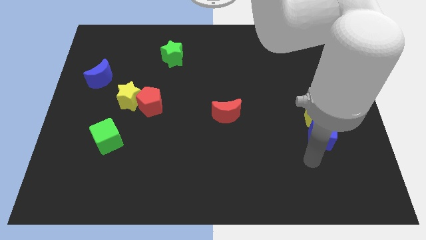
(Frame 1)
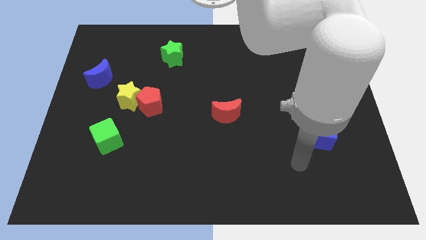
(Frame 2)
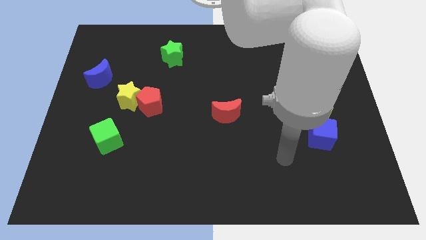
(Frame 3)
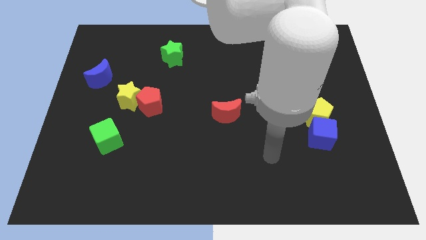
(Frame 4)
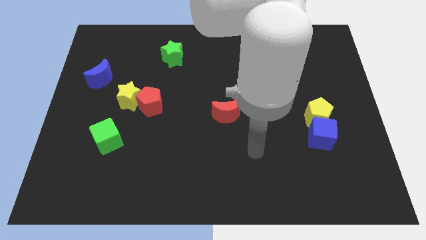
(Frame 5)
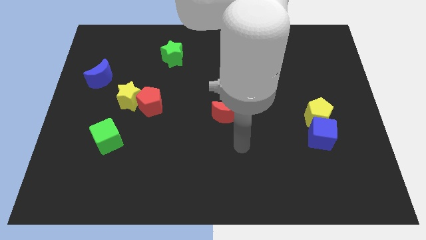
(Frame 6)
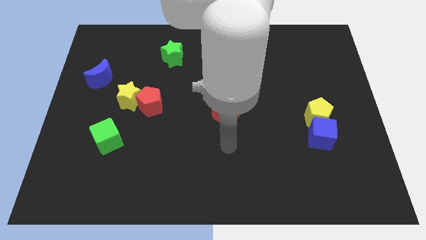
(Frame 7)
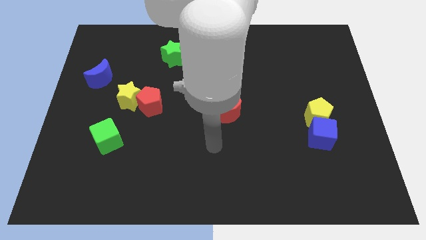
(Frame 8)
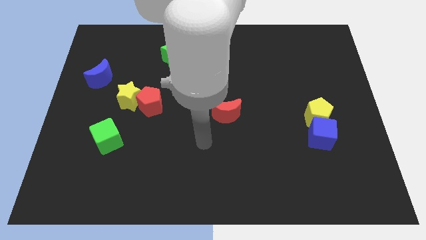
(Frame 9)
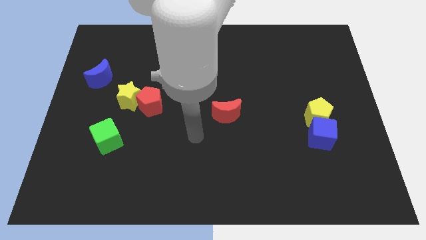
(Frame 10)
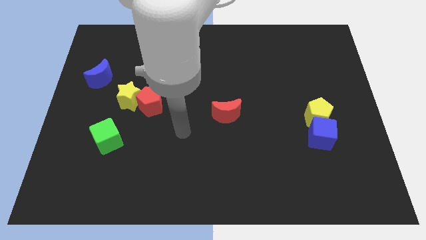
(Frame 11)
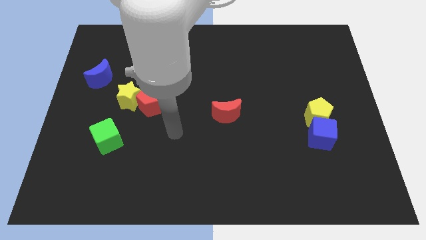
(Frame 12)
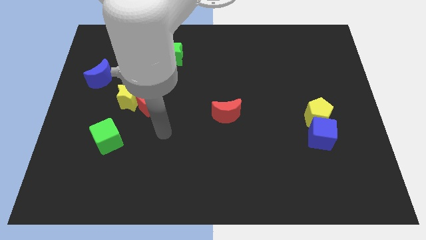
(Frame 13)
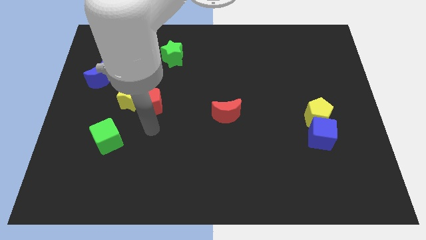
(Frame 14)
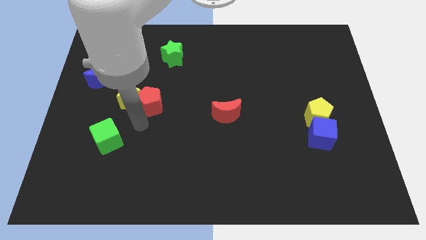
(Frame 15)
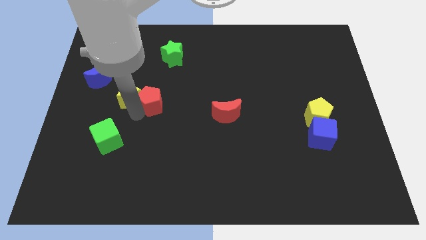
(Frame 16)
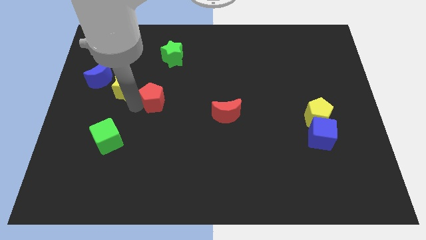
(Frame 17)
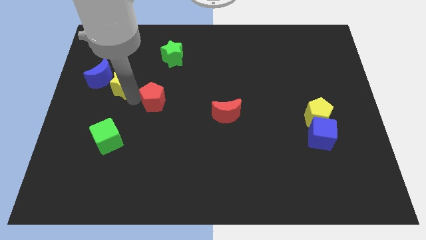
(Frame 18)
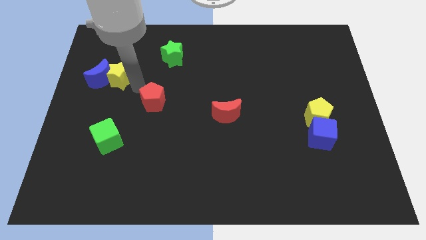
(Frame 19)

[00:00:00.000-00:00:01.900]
pull the red pentagon apart from the yellow star

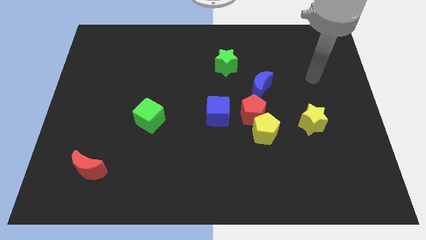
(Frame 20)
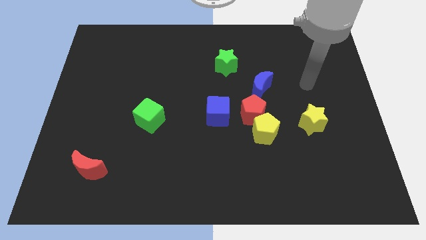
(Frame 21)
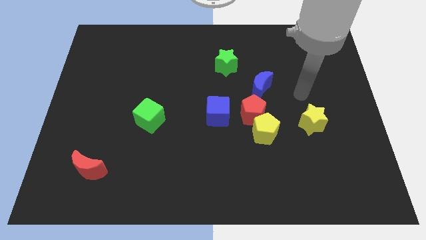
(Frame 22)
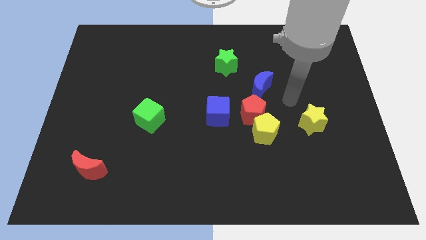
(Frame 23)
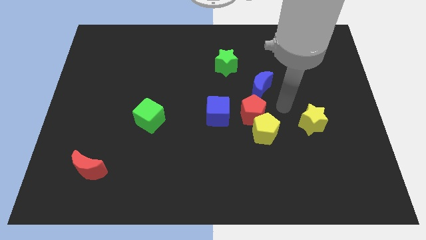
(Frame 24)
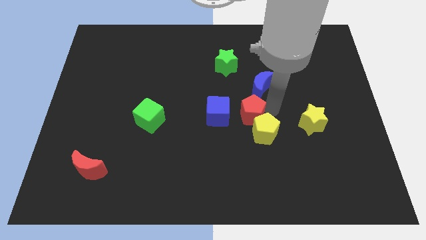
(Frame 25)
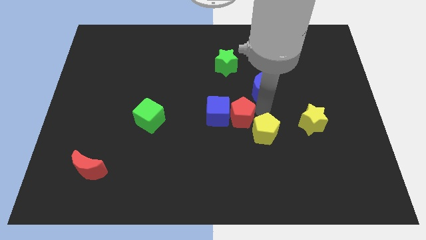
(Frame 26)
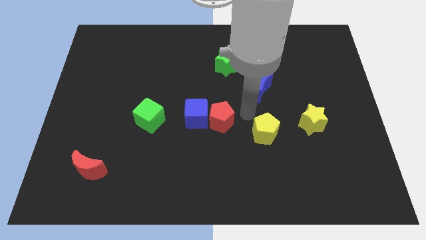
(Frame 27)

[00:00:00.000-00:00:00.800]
pull the yellow pentagon apart from the red pentagon

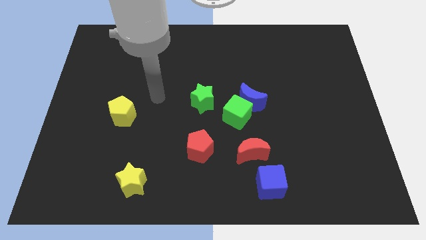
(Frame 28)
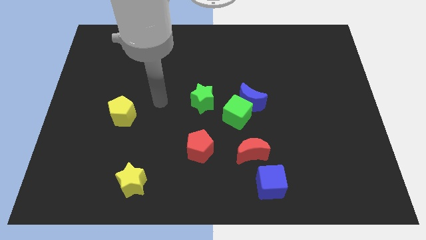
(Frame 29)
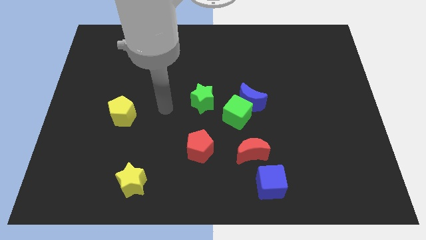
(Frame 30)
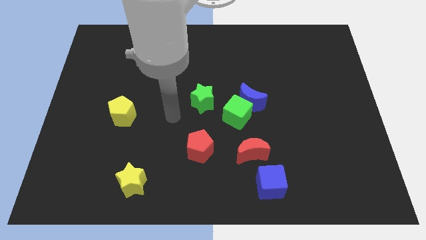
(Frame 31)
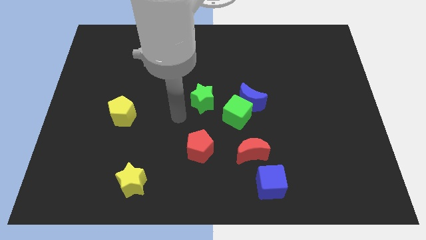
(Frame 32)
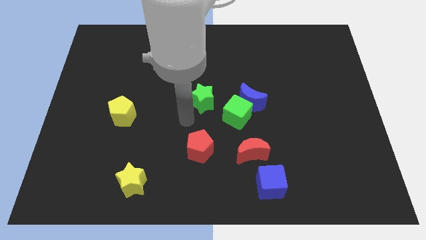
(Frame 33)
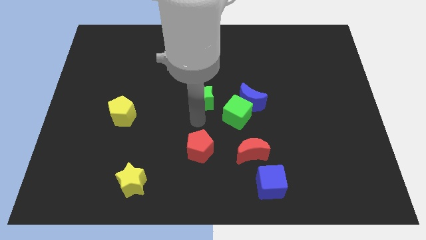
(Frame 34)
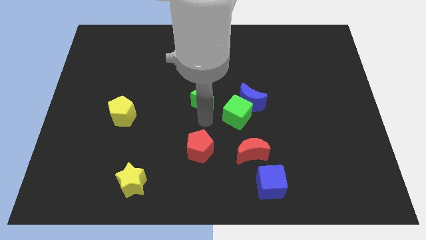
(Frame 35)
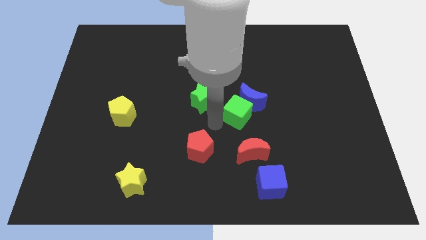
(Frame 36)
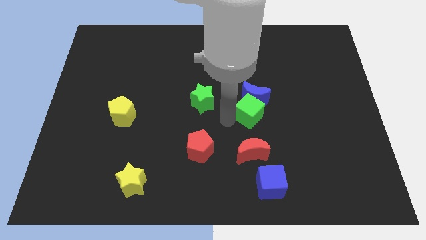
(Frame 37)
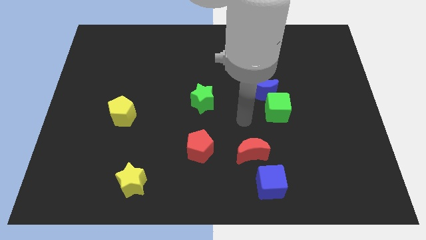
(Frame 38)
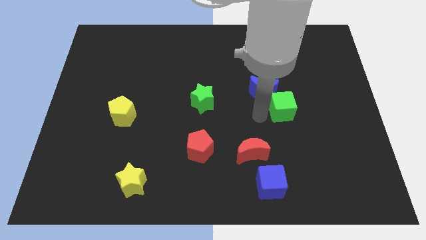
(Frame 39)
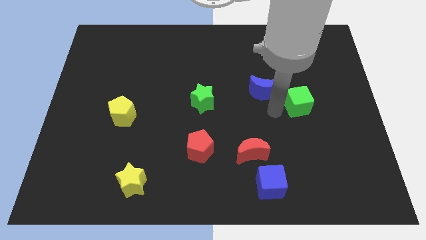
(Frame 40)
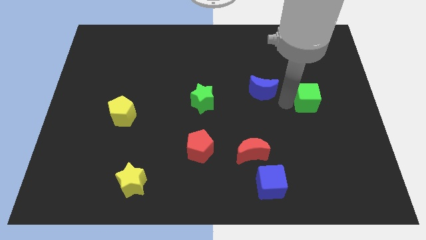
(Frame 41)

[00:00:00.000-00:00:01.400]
separate the blue moon from the green cube

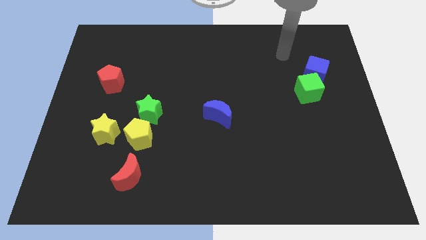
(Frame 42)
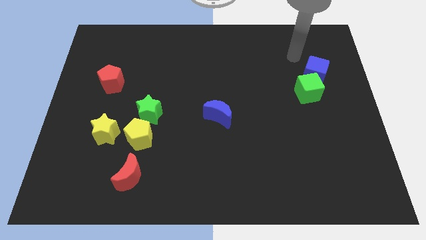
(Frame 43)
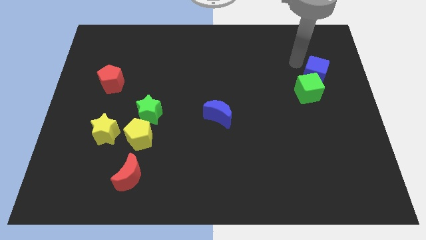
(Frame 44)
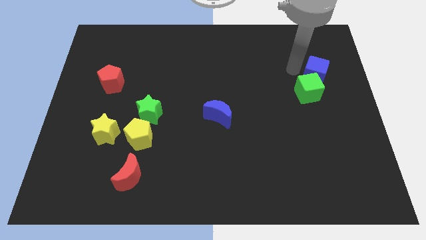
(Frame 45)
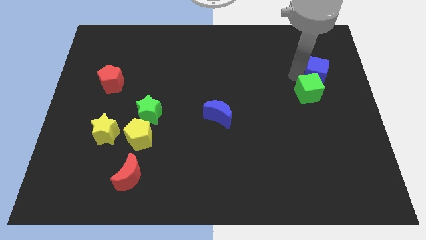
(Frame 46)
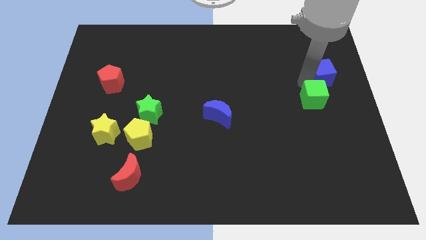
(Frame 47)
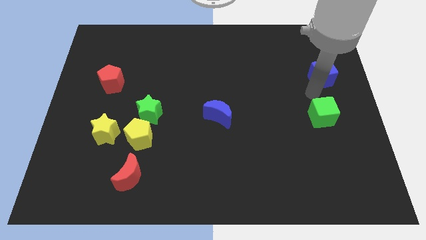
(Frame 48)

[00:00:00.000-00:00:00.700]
separate the blue cube from the green cube

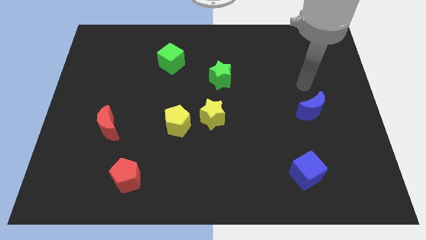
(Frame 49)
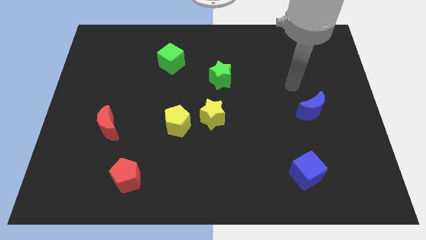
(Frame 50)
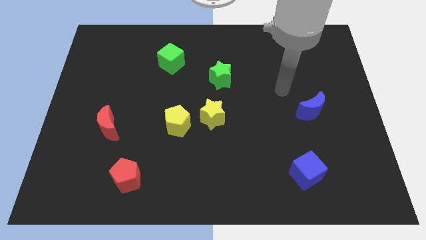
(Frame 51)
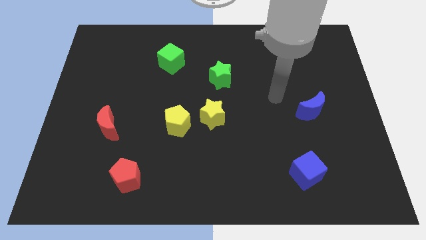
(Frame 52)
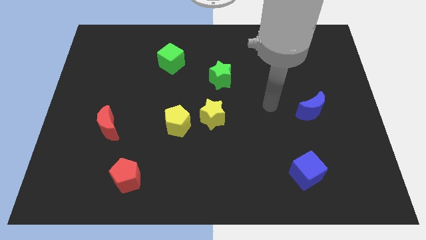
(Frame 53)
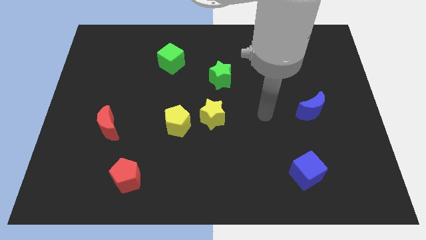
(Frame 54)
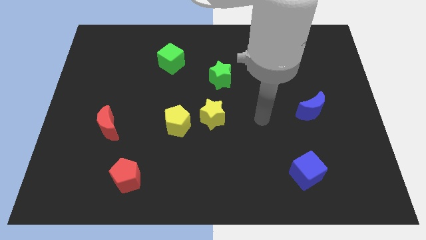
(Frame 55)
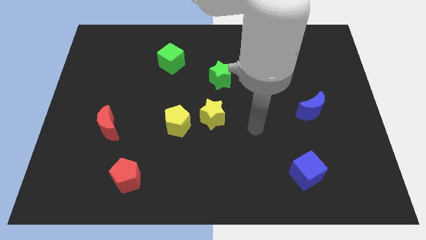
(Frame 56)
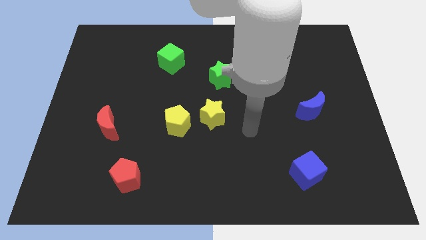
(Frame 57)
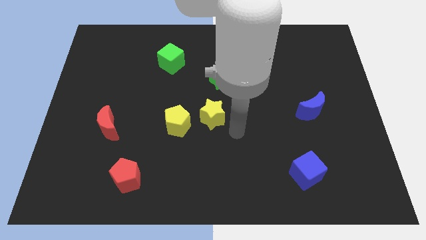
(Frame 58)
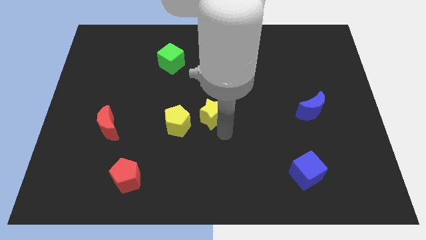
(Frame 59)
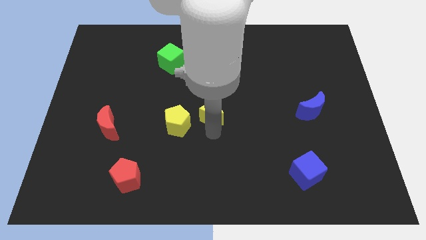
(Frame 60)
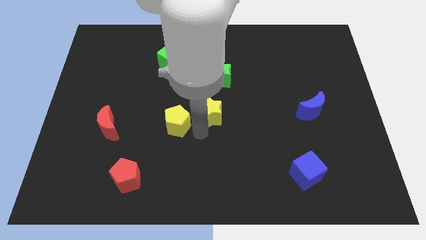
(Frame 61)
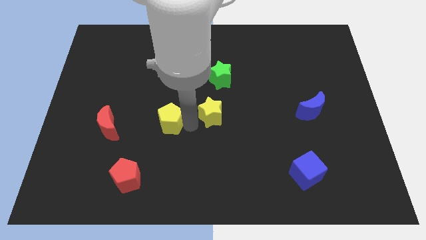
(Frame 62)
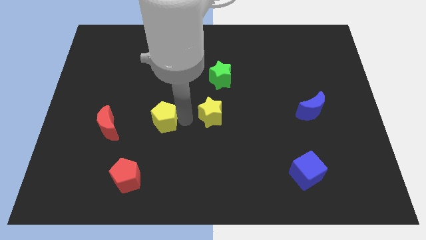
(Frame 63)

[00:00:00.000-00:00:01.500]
move the yellow star away from the yellow pentagon

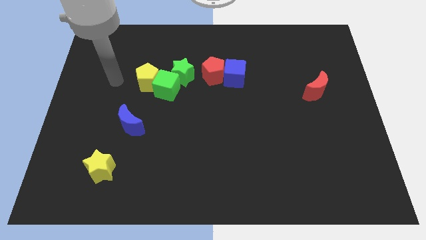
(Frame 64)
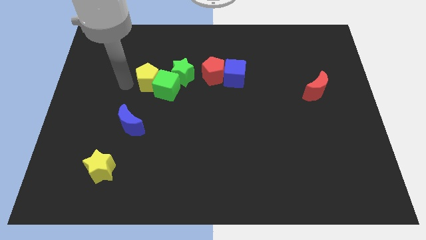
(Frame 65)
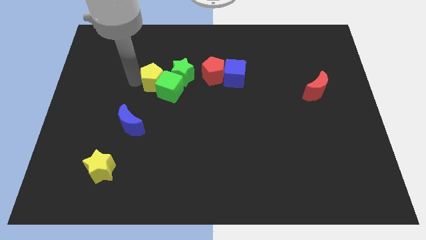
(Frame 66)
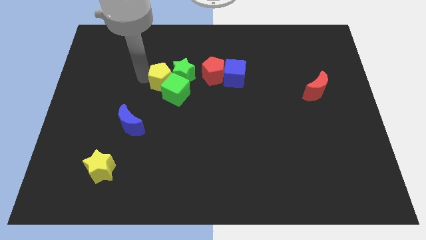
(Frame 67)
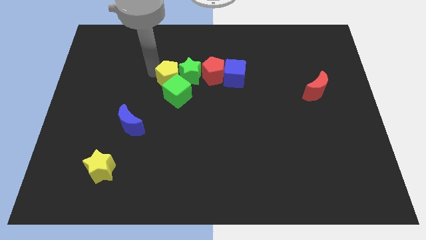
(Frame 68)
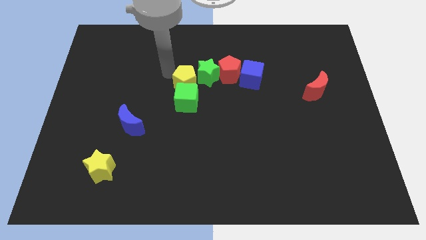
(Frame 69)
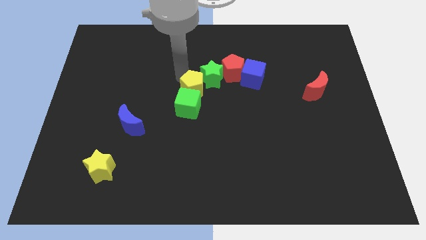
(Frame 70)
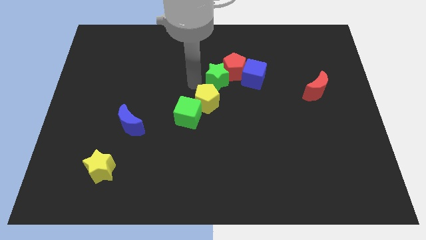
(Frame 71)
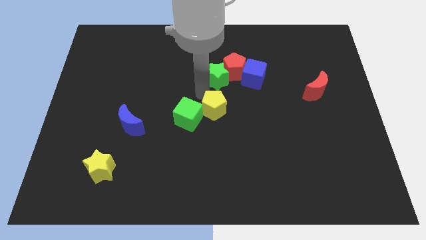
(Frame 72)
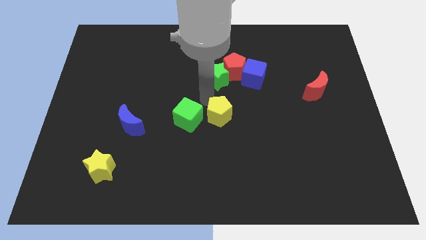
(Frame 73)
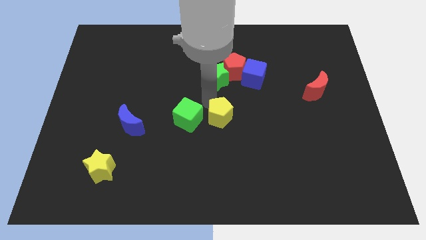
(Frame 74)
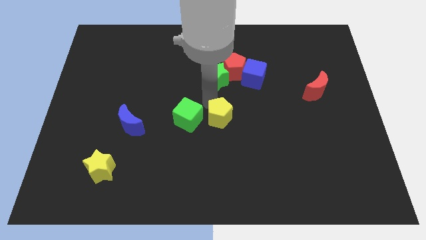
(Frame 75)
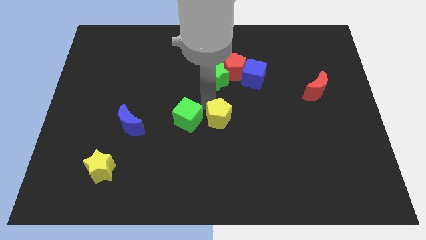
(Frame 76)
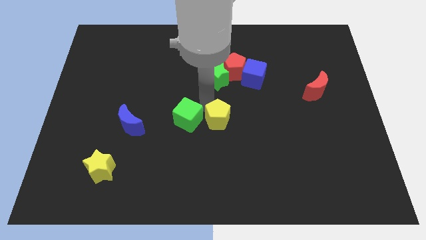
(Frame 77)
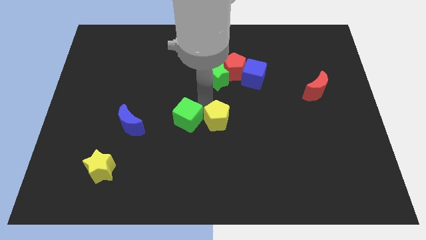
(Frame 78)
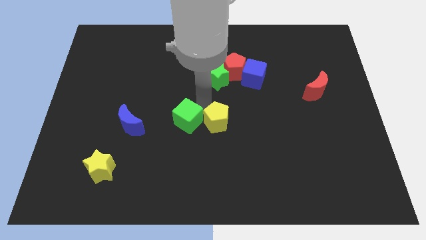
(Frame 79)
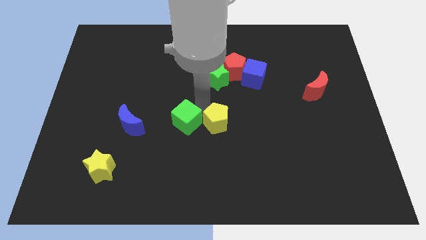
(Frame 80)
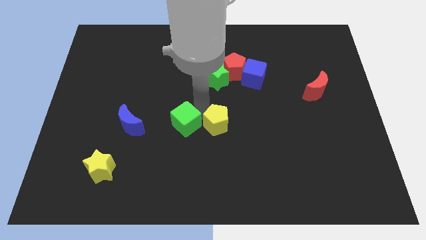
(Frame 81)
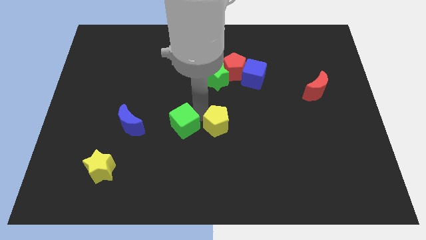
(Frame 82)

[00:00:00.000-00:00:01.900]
move the green cube away from the yellow pentagon and green star

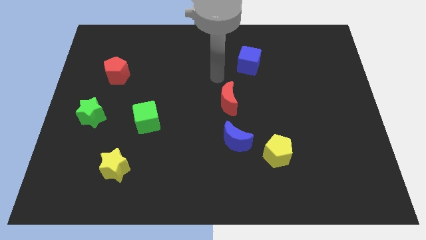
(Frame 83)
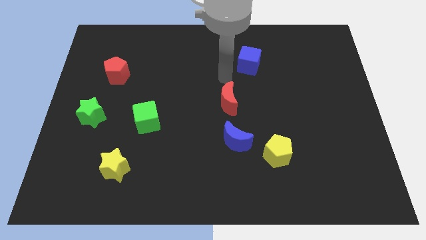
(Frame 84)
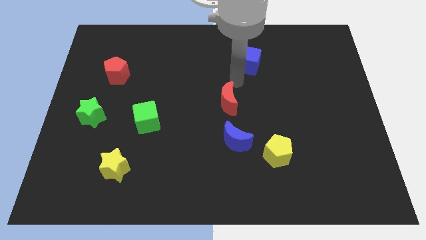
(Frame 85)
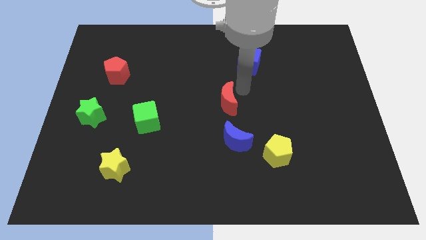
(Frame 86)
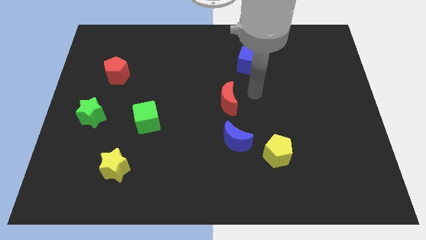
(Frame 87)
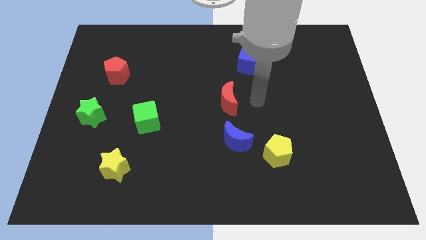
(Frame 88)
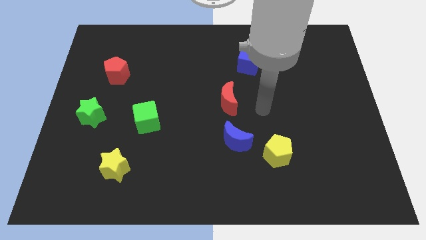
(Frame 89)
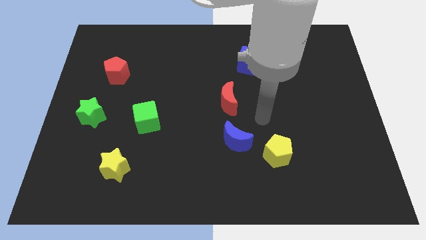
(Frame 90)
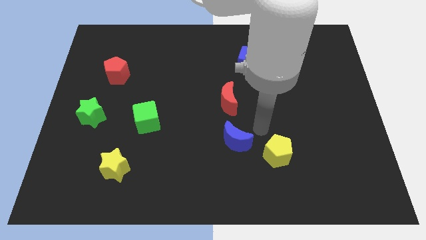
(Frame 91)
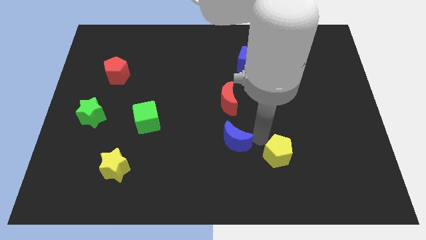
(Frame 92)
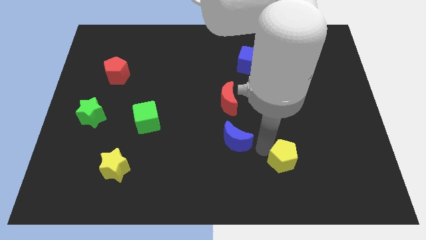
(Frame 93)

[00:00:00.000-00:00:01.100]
separate the blue moon from the yellow pentagon

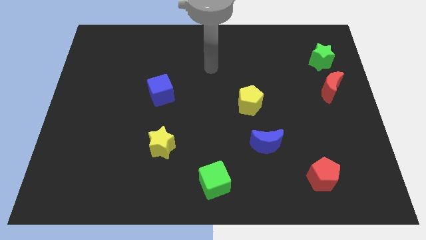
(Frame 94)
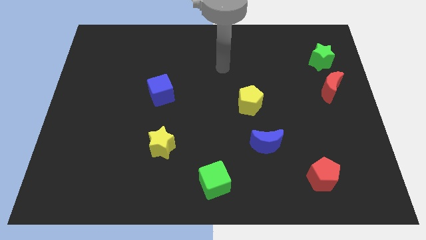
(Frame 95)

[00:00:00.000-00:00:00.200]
pull the red moon apart from the green star

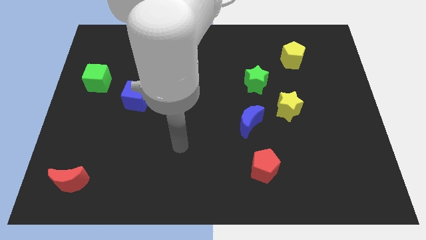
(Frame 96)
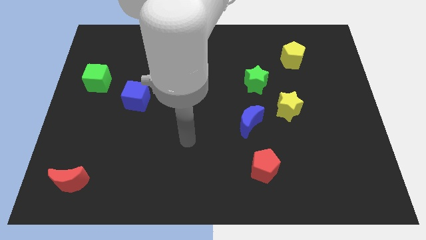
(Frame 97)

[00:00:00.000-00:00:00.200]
move the blue moon away from the yellow star
